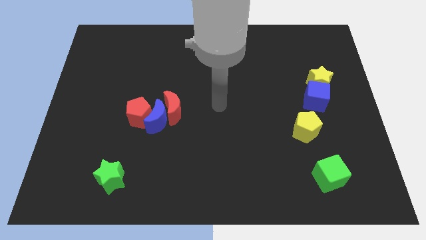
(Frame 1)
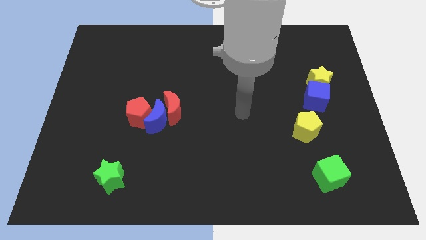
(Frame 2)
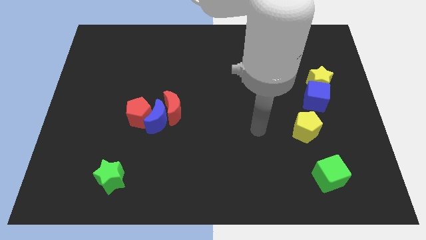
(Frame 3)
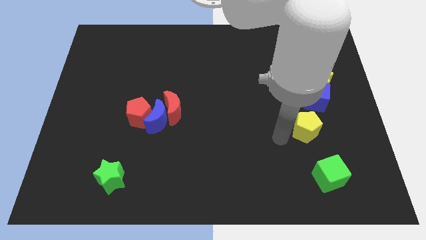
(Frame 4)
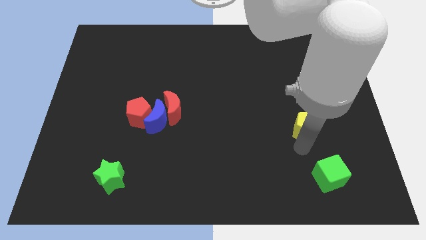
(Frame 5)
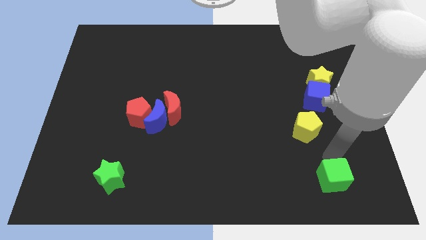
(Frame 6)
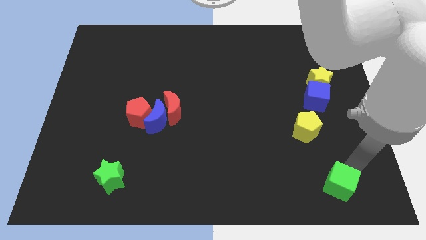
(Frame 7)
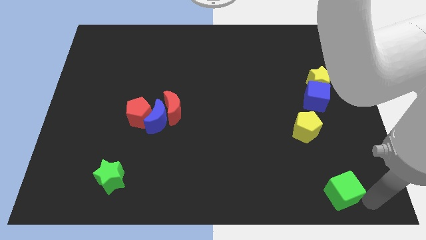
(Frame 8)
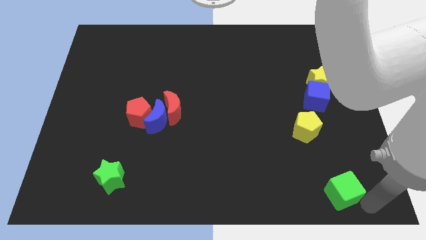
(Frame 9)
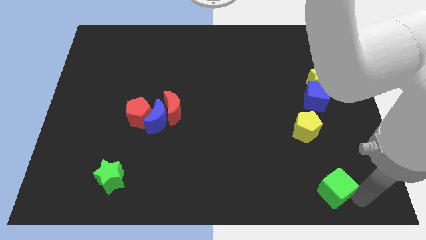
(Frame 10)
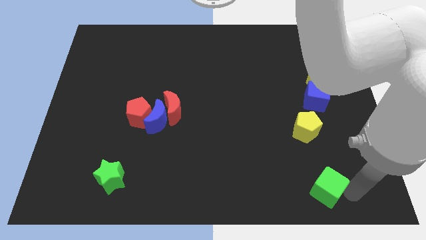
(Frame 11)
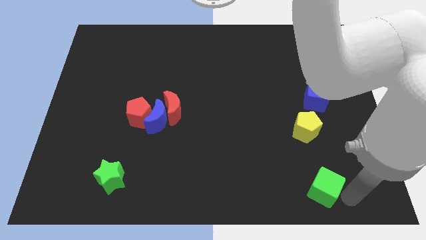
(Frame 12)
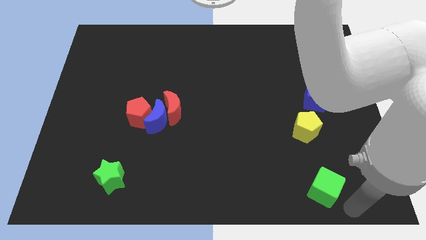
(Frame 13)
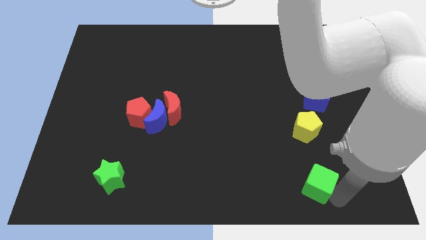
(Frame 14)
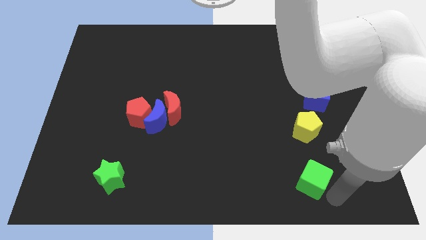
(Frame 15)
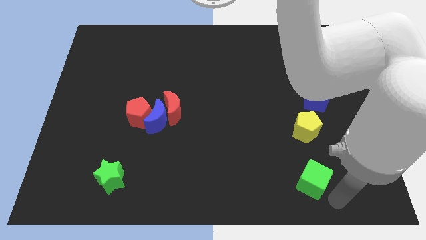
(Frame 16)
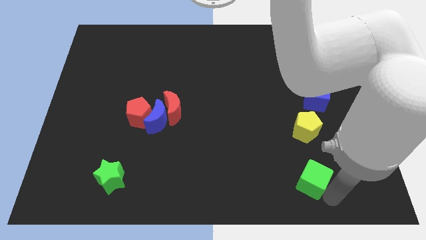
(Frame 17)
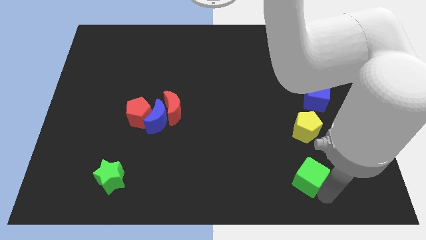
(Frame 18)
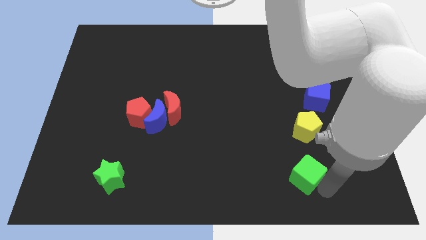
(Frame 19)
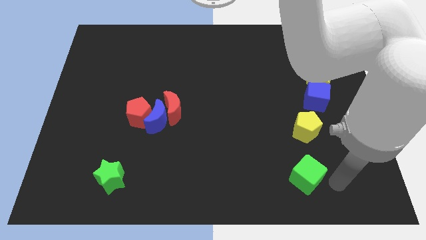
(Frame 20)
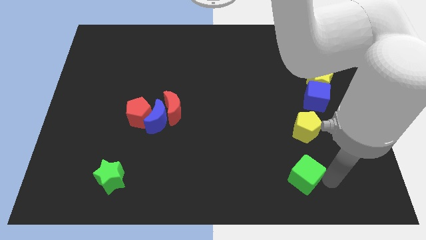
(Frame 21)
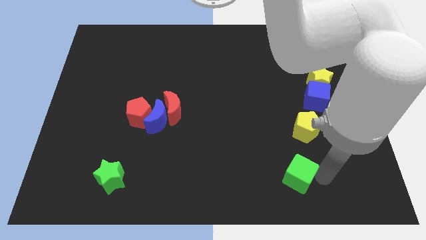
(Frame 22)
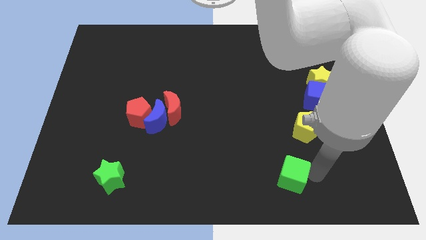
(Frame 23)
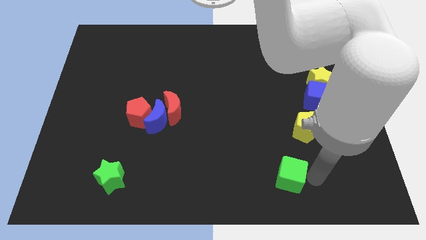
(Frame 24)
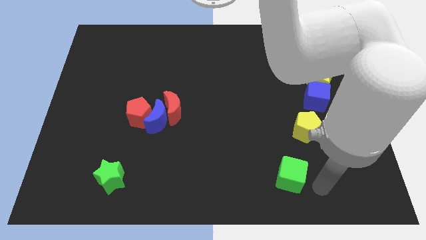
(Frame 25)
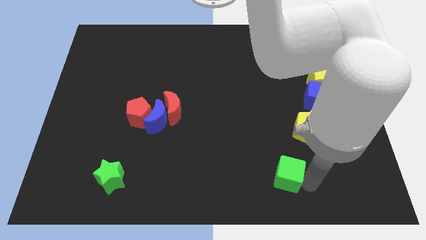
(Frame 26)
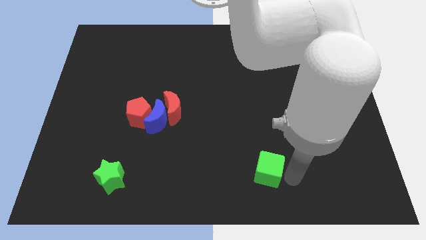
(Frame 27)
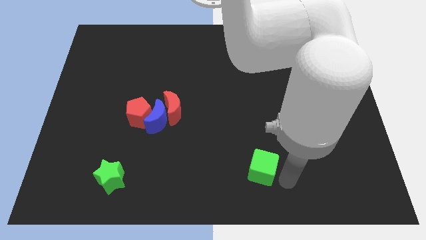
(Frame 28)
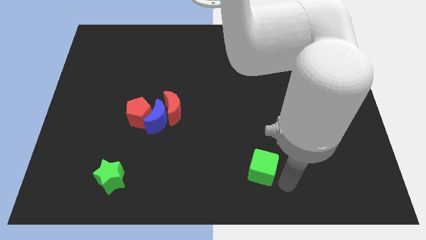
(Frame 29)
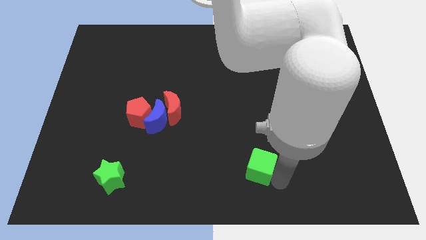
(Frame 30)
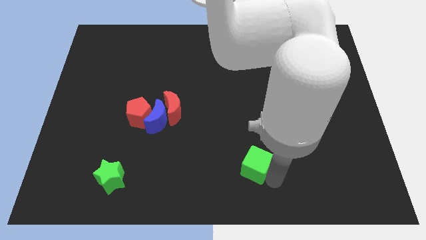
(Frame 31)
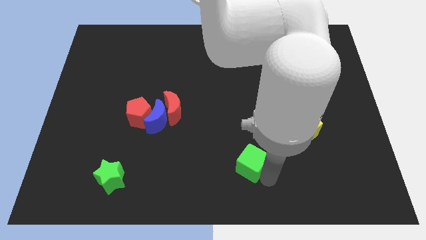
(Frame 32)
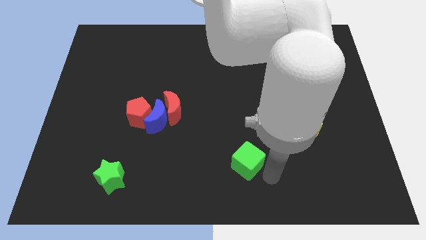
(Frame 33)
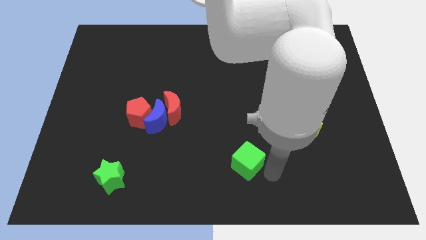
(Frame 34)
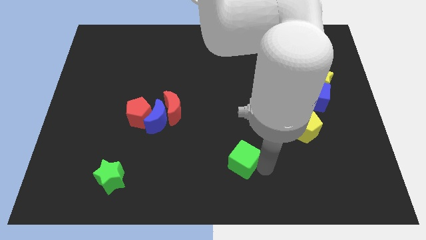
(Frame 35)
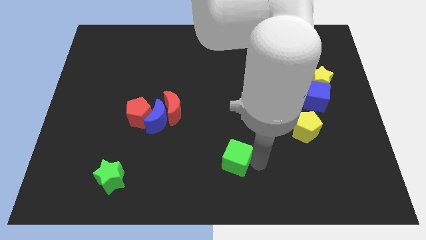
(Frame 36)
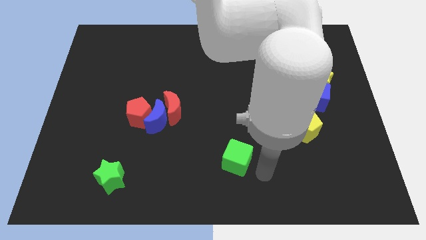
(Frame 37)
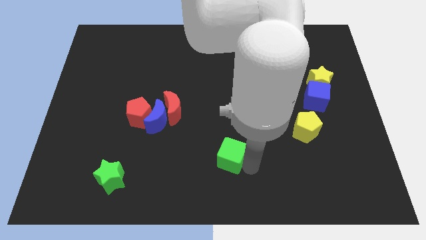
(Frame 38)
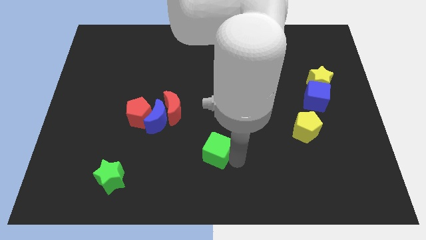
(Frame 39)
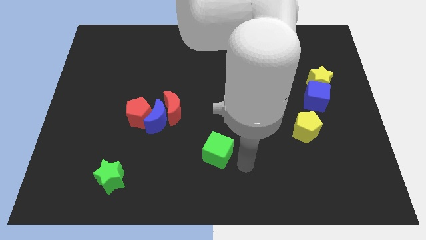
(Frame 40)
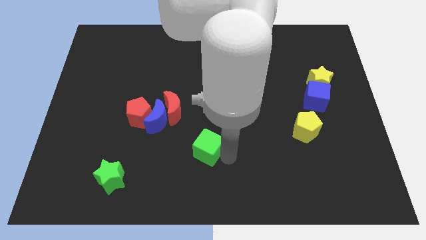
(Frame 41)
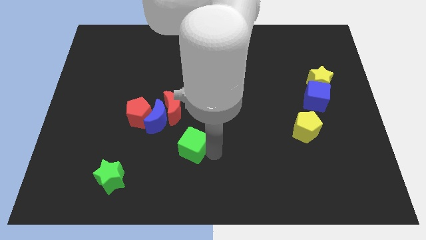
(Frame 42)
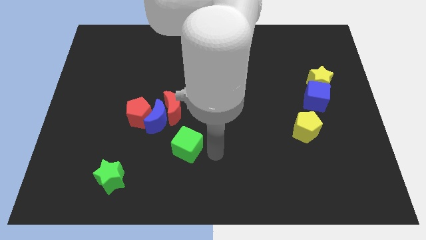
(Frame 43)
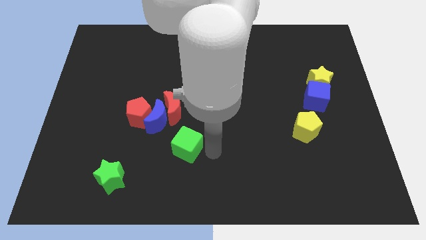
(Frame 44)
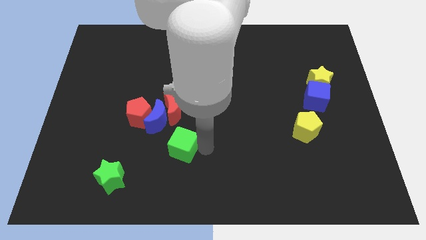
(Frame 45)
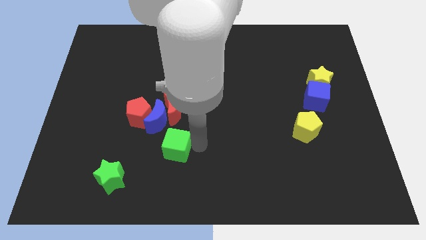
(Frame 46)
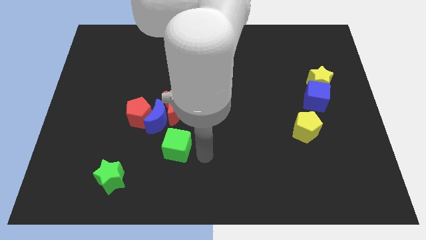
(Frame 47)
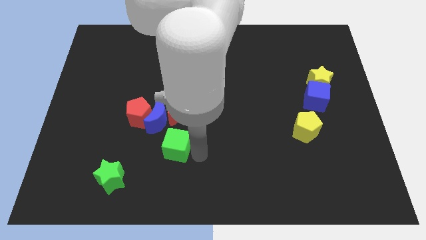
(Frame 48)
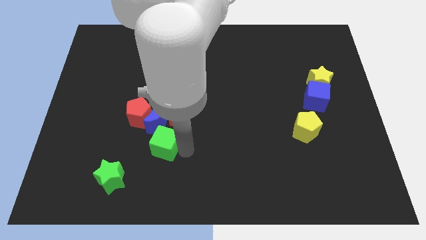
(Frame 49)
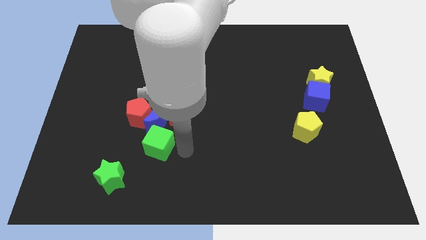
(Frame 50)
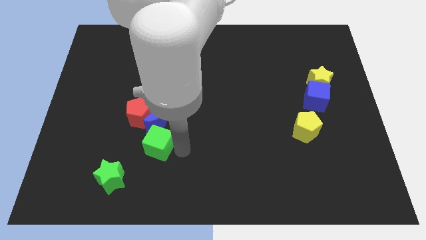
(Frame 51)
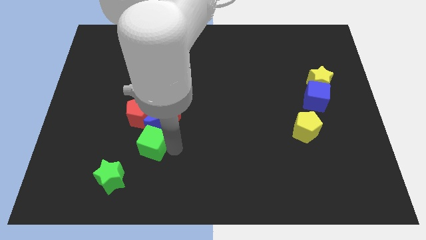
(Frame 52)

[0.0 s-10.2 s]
push the green cube to the bottom left of the blue moon

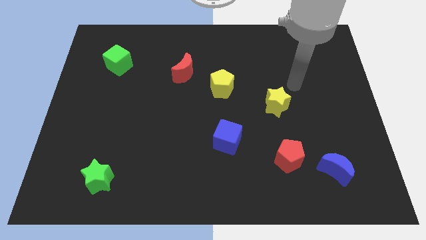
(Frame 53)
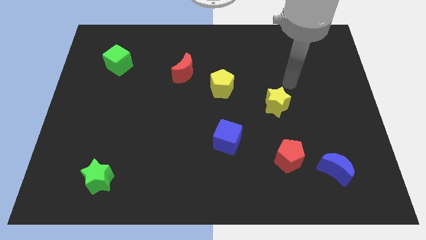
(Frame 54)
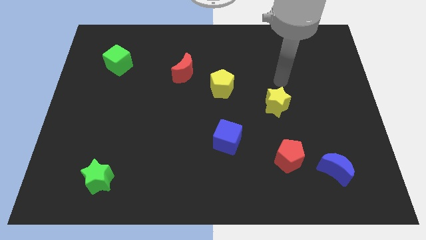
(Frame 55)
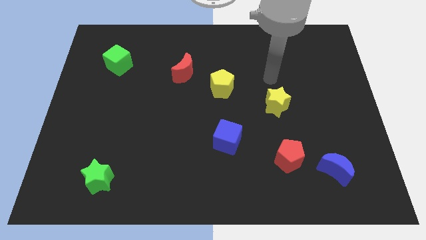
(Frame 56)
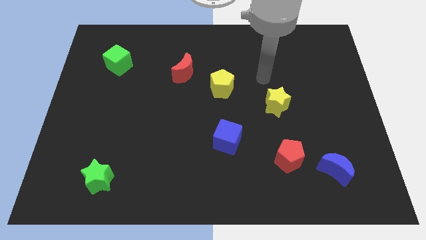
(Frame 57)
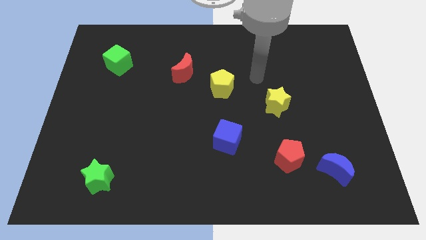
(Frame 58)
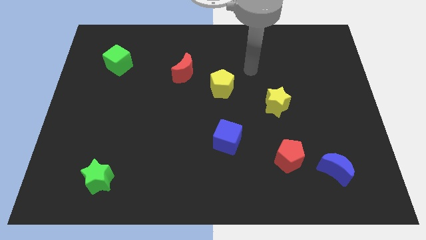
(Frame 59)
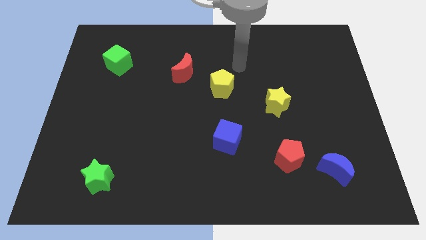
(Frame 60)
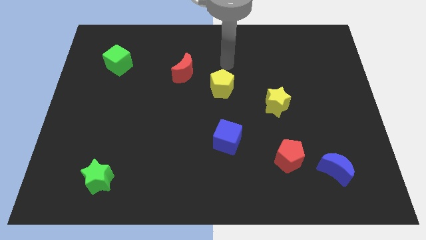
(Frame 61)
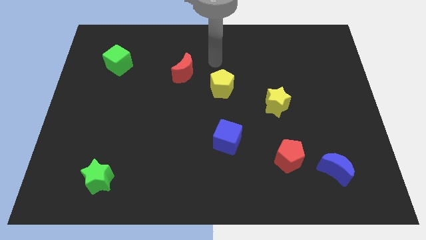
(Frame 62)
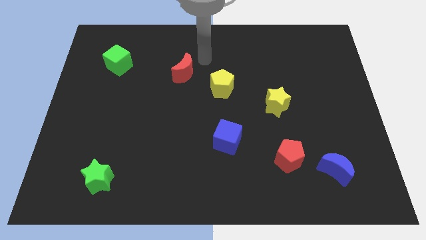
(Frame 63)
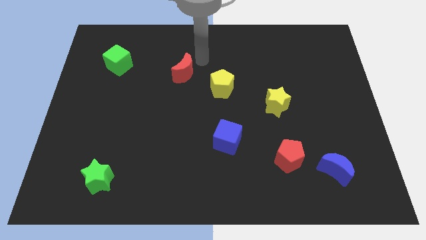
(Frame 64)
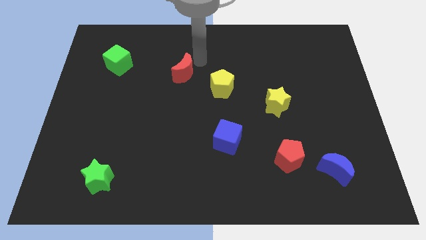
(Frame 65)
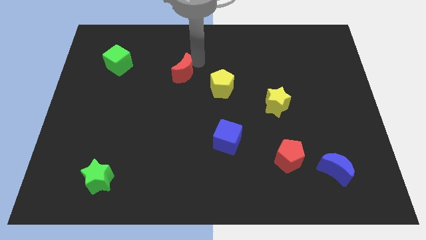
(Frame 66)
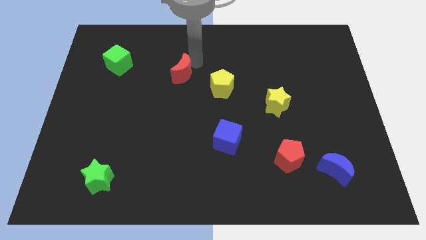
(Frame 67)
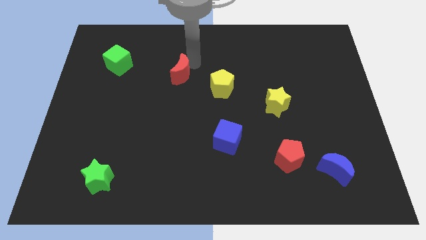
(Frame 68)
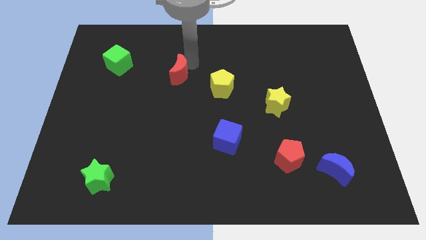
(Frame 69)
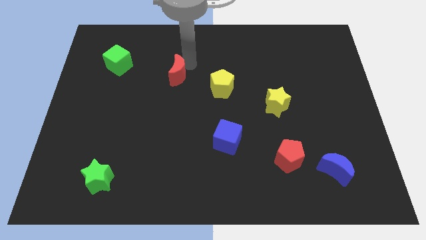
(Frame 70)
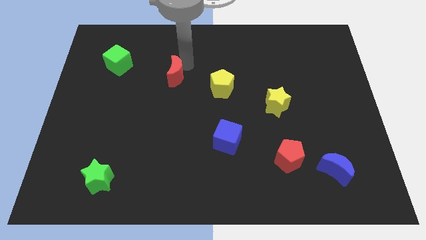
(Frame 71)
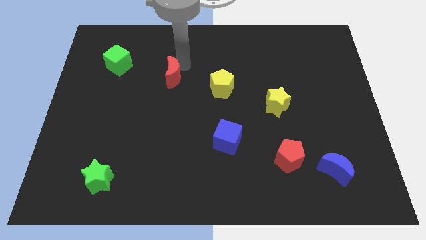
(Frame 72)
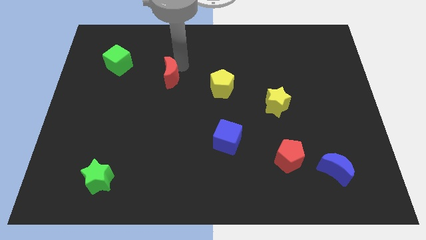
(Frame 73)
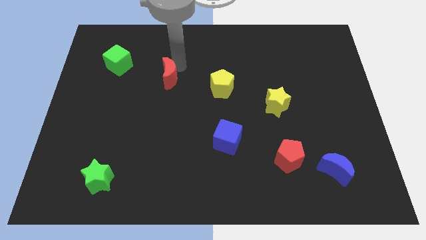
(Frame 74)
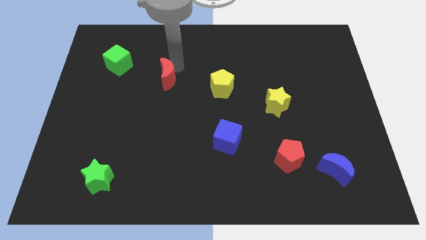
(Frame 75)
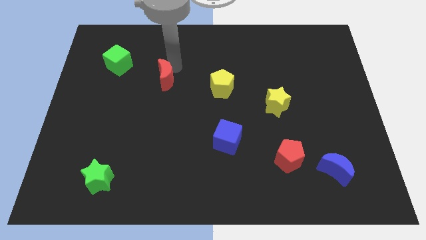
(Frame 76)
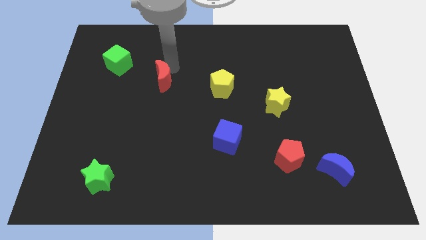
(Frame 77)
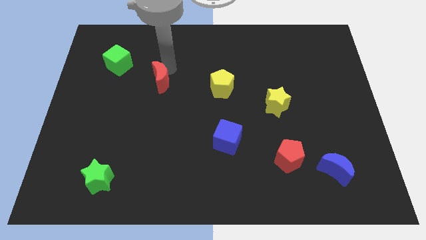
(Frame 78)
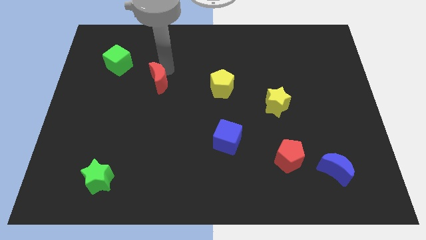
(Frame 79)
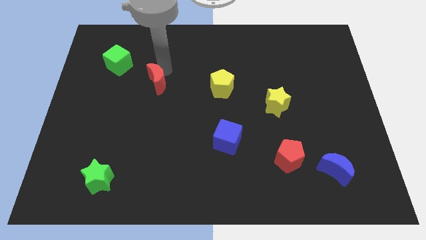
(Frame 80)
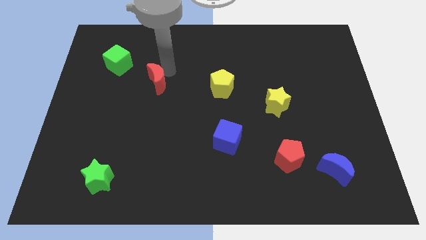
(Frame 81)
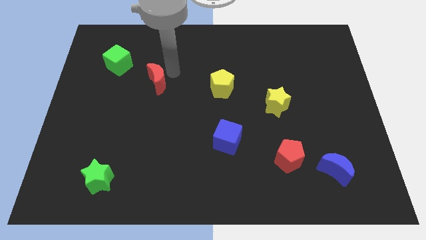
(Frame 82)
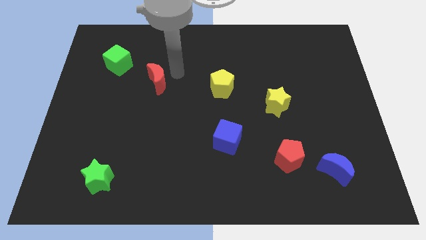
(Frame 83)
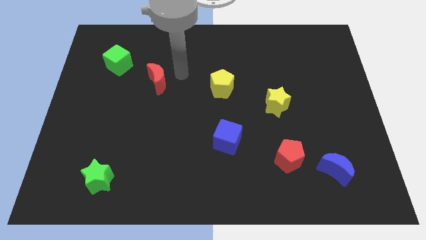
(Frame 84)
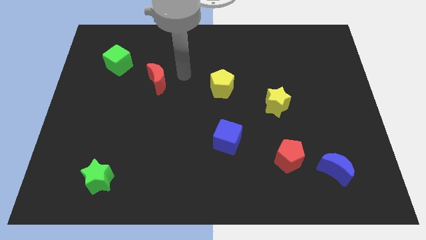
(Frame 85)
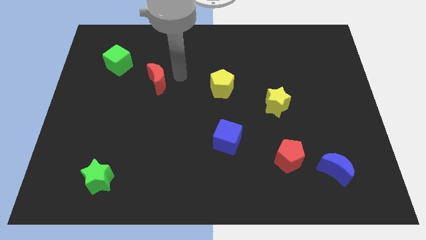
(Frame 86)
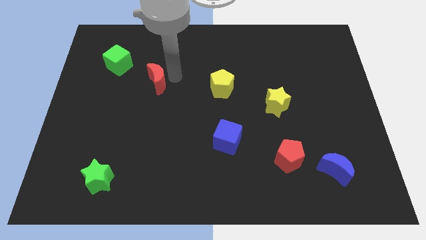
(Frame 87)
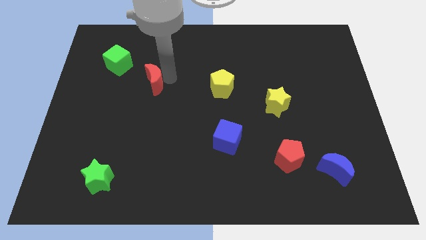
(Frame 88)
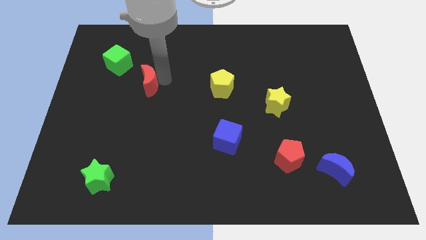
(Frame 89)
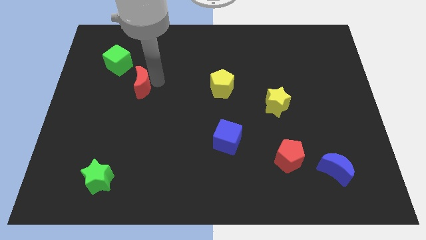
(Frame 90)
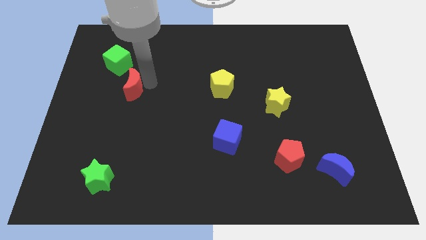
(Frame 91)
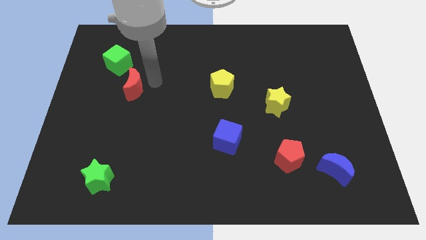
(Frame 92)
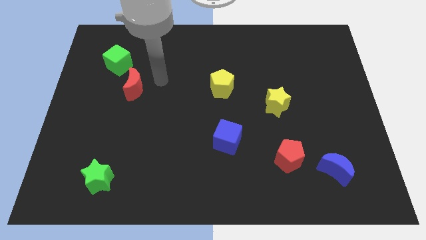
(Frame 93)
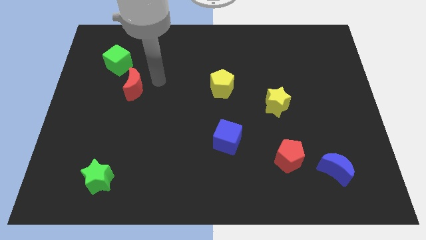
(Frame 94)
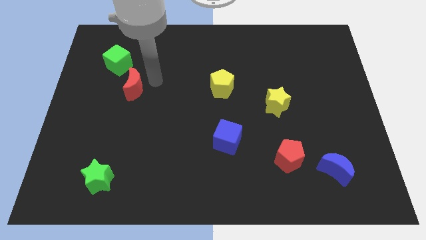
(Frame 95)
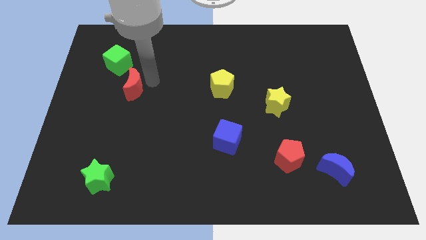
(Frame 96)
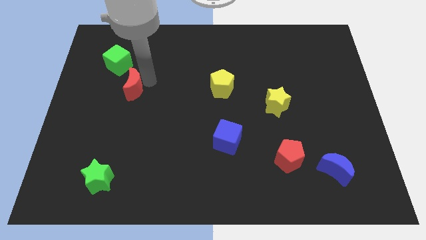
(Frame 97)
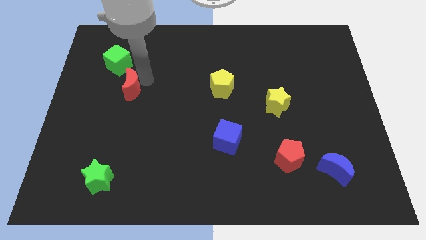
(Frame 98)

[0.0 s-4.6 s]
push the red moon to the bottom side of the green cube
